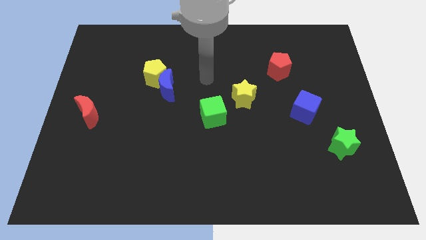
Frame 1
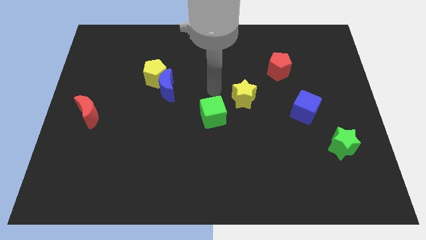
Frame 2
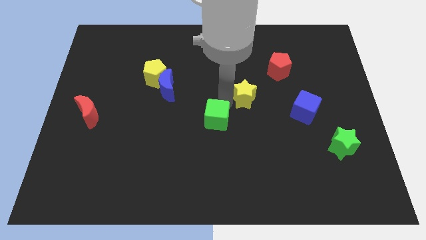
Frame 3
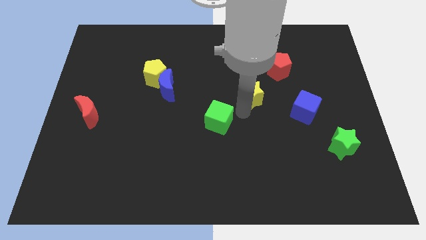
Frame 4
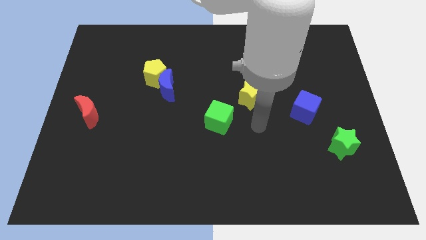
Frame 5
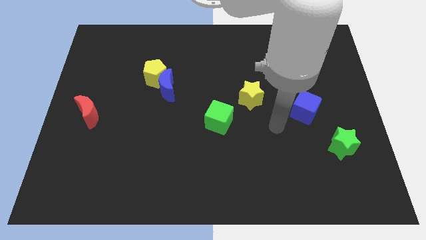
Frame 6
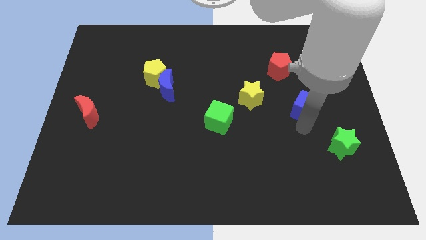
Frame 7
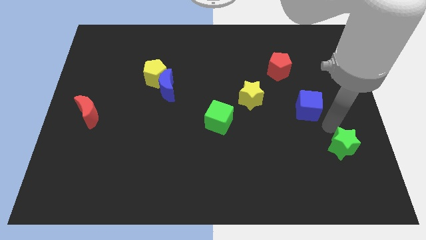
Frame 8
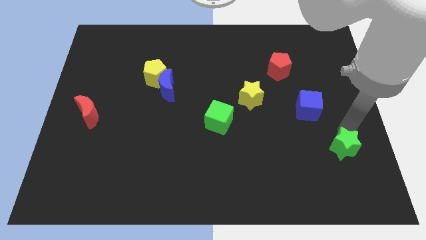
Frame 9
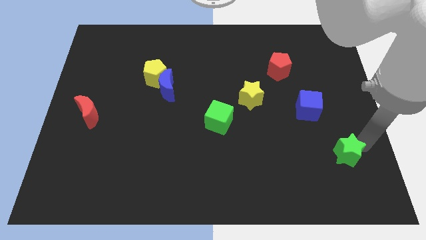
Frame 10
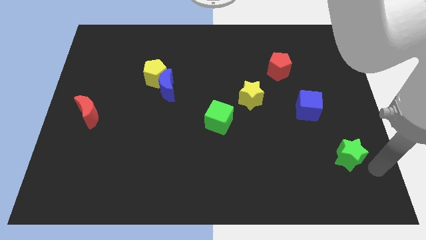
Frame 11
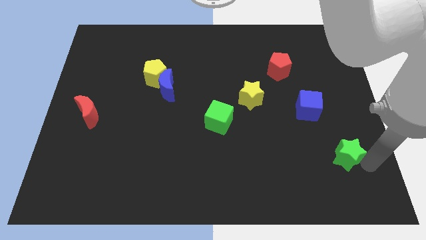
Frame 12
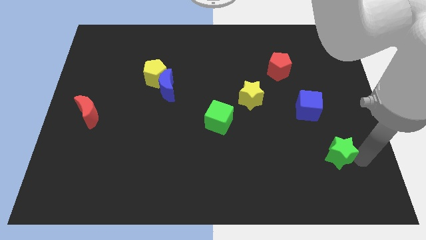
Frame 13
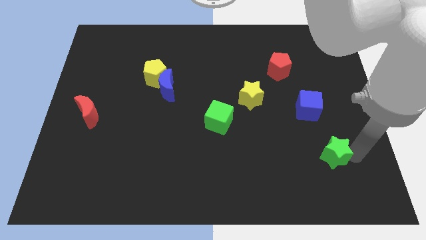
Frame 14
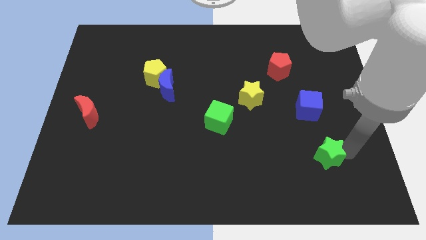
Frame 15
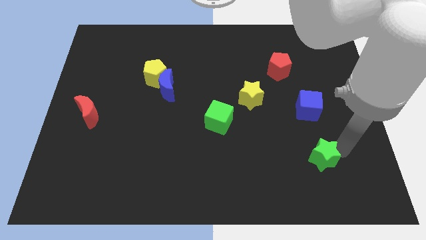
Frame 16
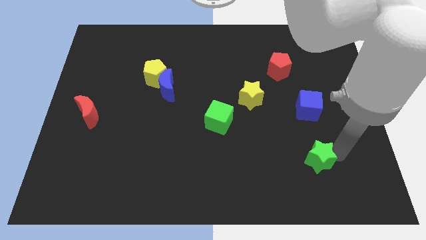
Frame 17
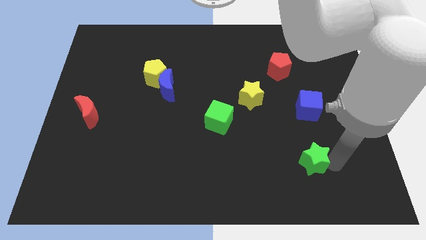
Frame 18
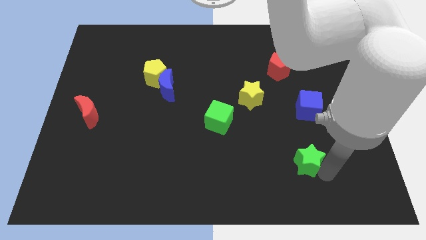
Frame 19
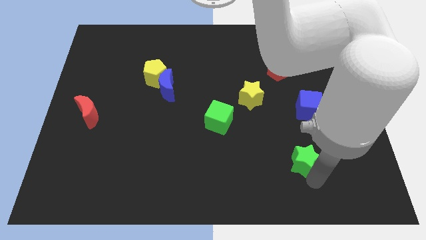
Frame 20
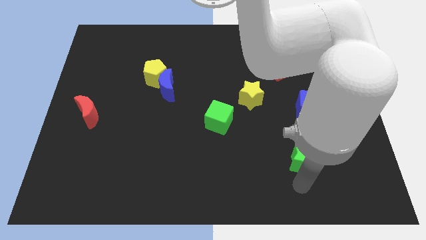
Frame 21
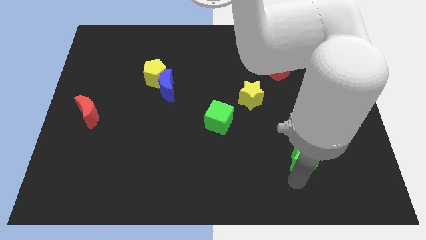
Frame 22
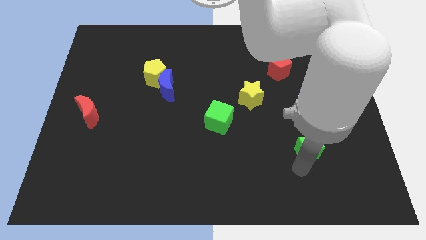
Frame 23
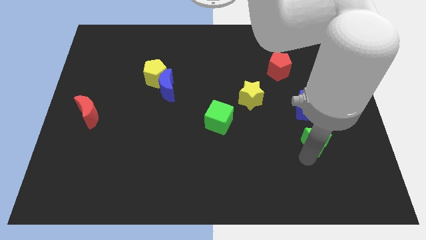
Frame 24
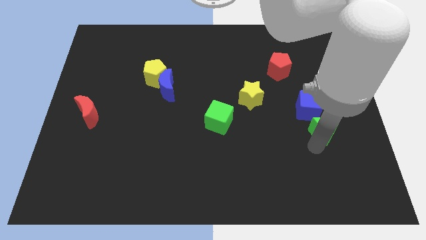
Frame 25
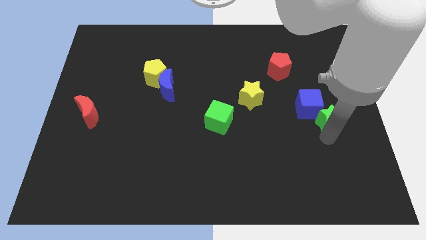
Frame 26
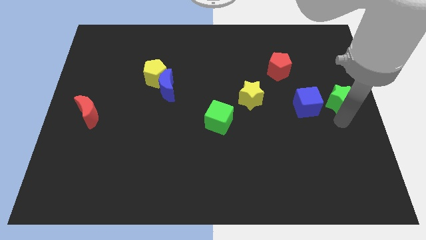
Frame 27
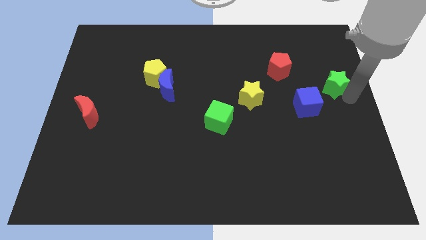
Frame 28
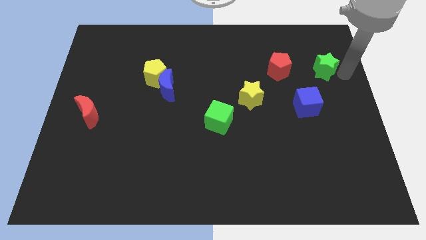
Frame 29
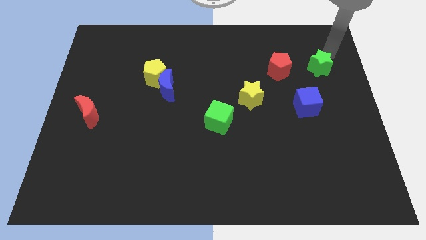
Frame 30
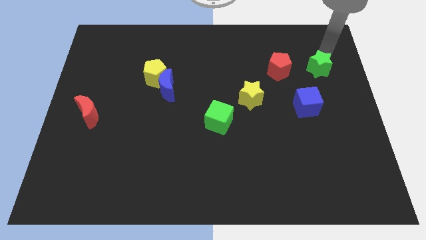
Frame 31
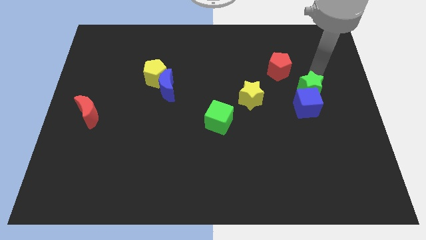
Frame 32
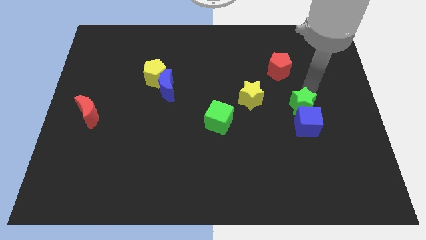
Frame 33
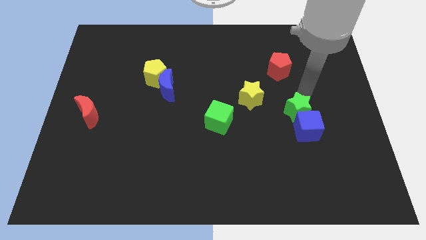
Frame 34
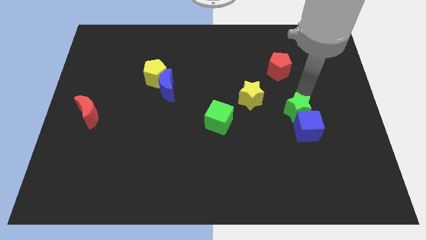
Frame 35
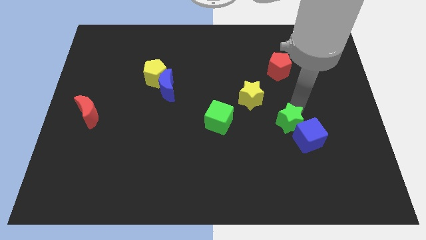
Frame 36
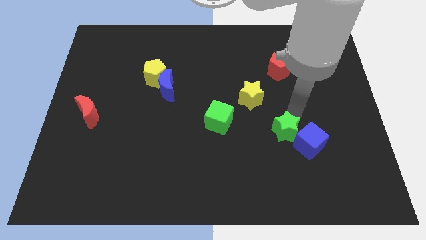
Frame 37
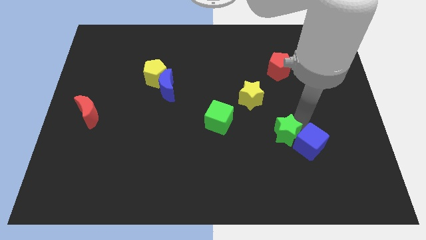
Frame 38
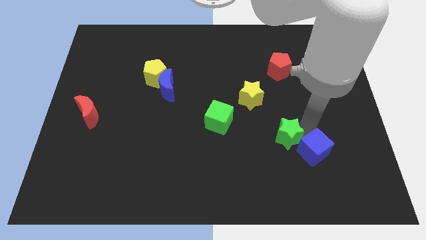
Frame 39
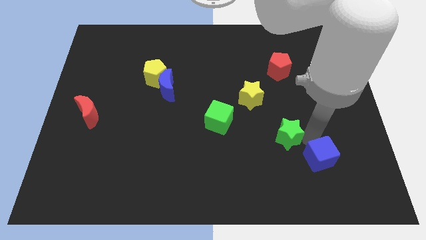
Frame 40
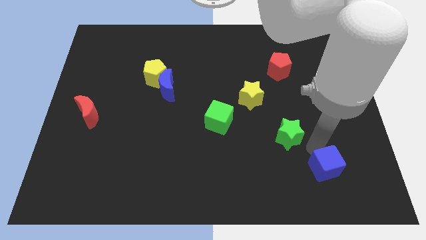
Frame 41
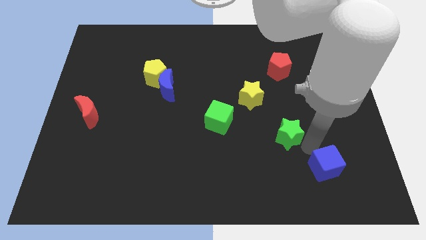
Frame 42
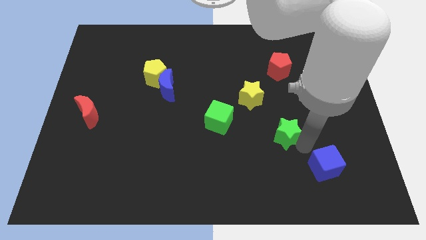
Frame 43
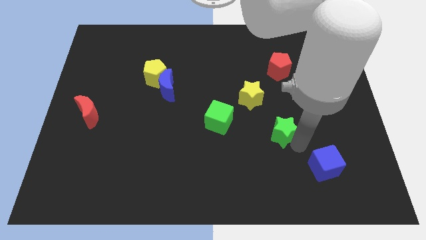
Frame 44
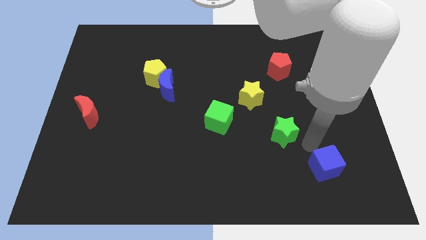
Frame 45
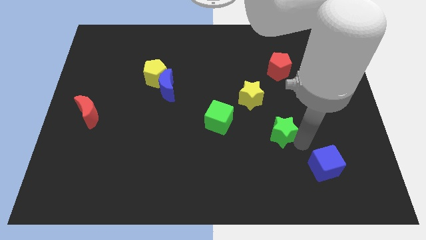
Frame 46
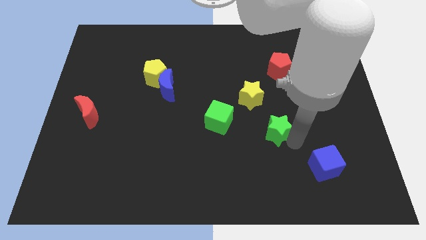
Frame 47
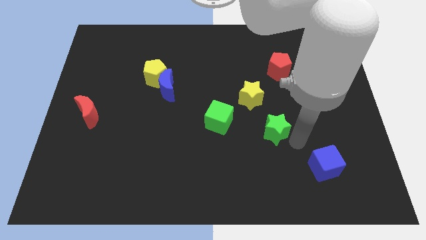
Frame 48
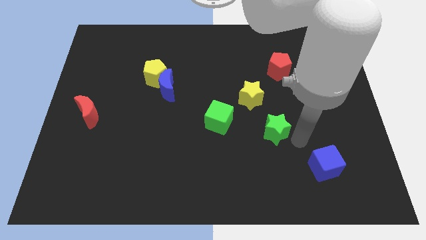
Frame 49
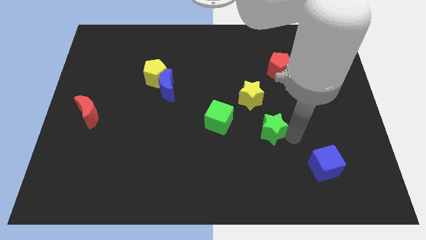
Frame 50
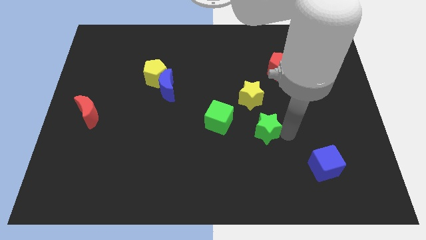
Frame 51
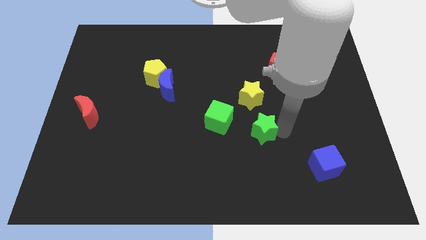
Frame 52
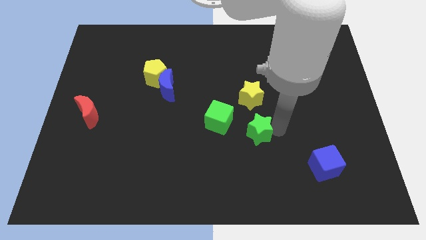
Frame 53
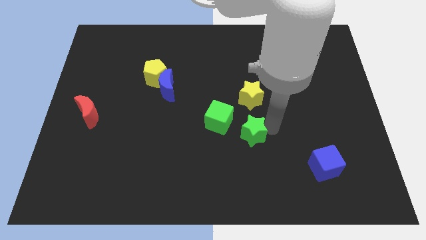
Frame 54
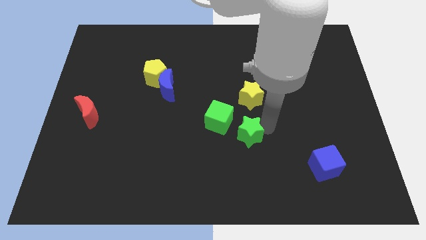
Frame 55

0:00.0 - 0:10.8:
put the green star to the middle of the board

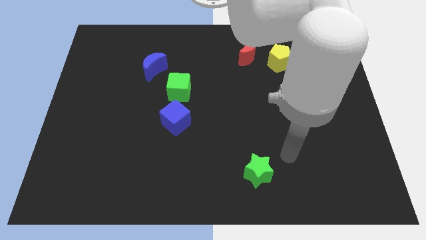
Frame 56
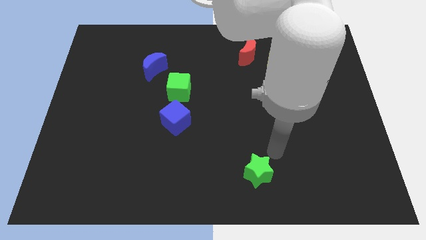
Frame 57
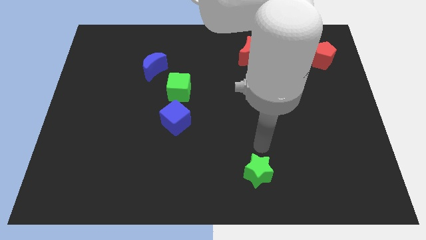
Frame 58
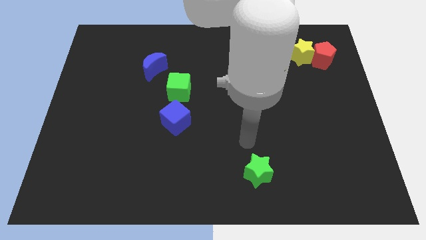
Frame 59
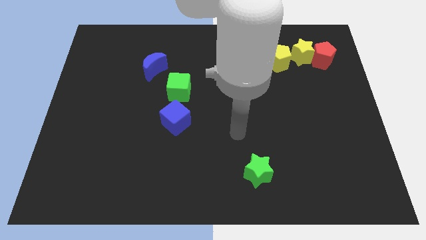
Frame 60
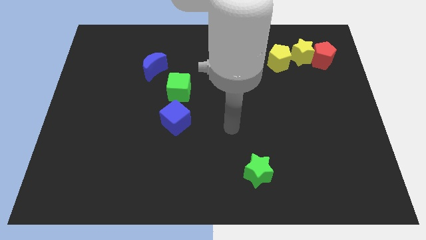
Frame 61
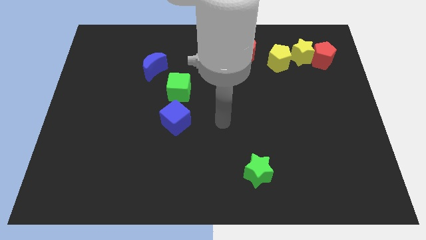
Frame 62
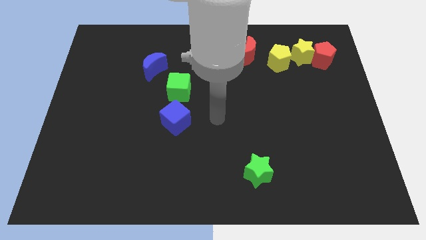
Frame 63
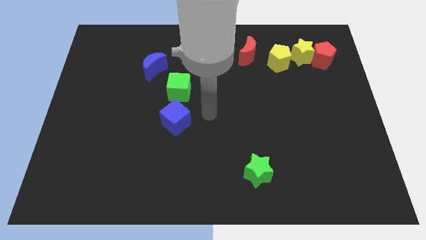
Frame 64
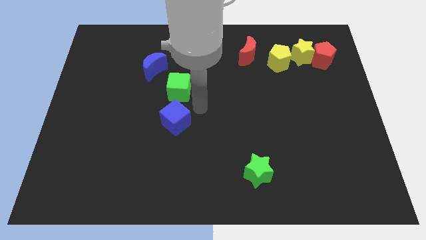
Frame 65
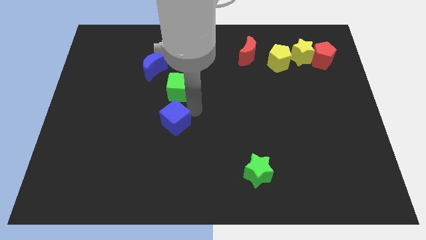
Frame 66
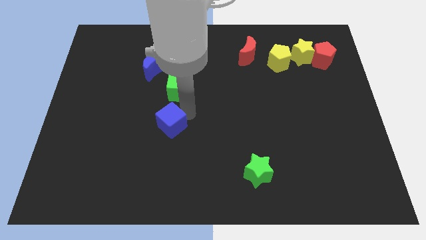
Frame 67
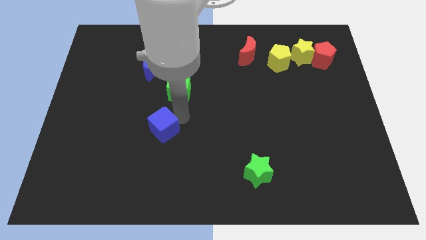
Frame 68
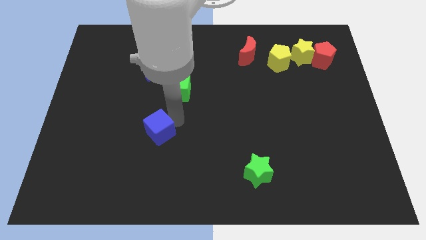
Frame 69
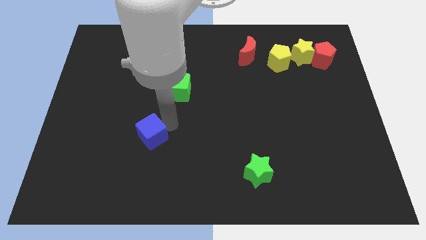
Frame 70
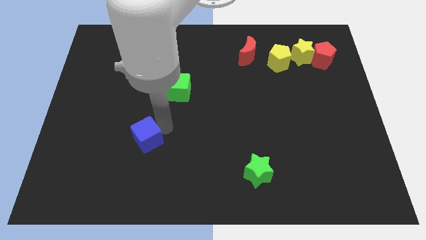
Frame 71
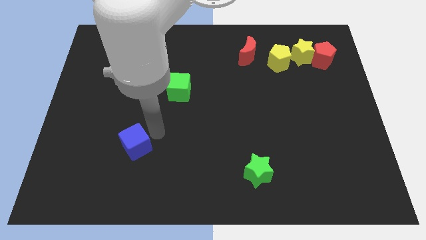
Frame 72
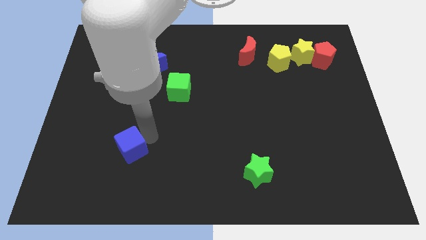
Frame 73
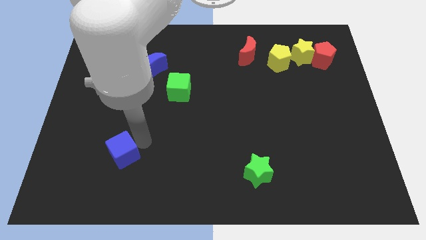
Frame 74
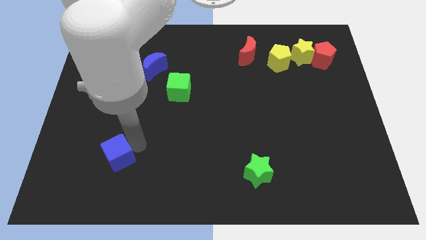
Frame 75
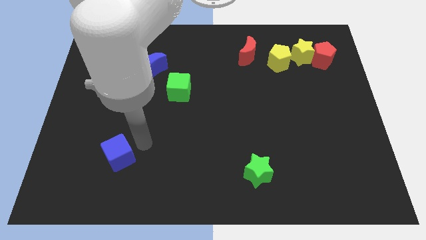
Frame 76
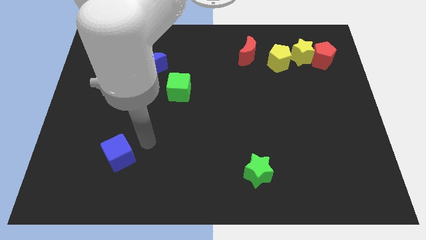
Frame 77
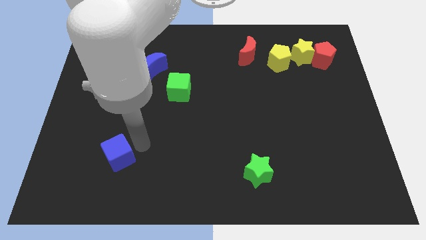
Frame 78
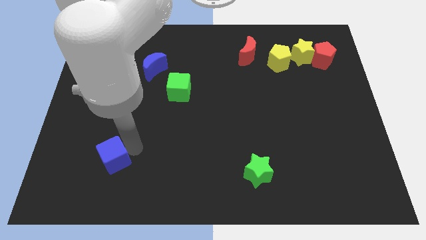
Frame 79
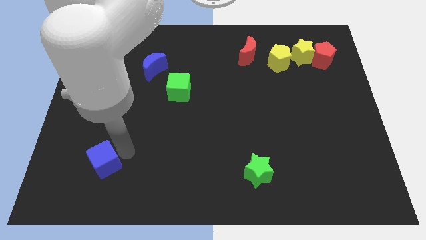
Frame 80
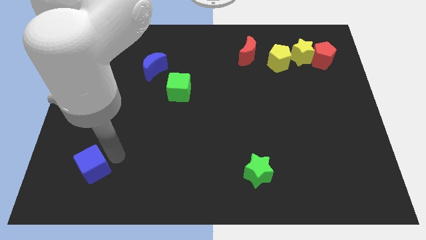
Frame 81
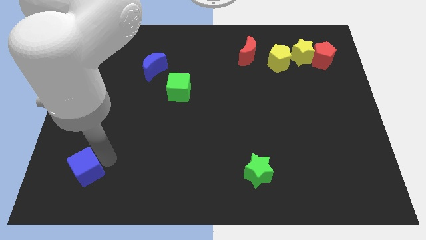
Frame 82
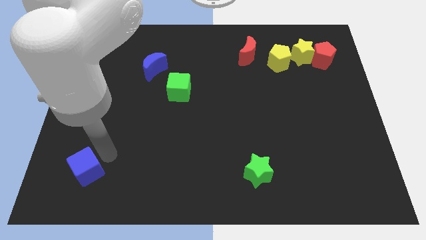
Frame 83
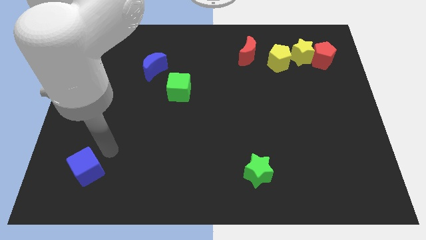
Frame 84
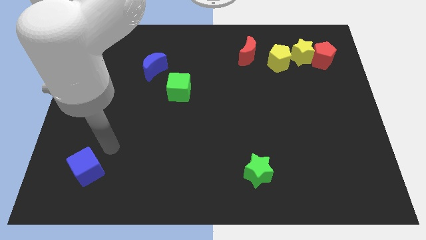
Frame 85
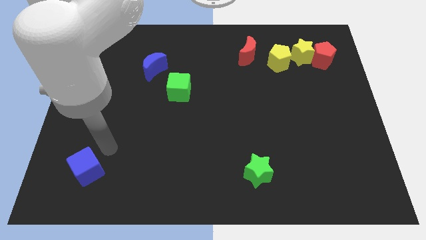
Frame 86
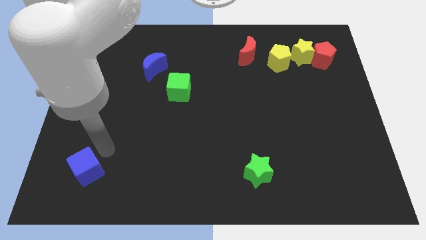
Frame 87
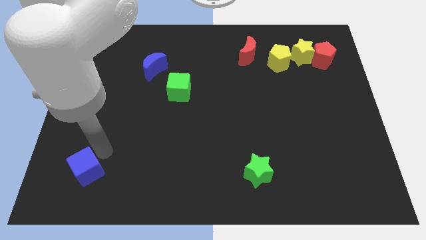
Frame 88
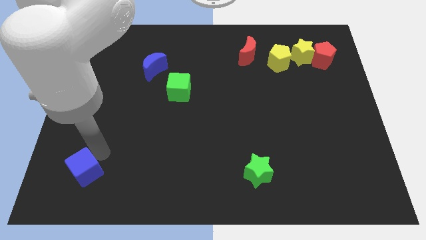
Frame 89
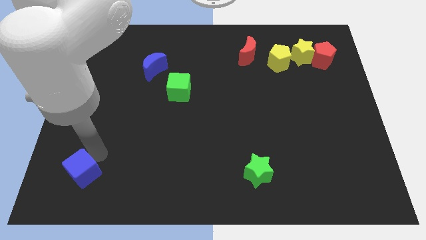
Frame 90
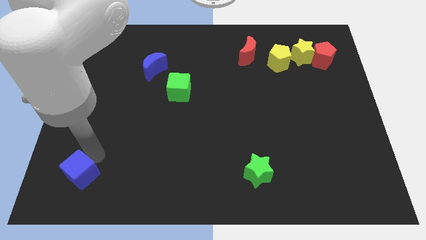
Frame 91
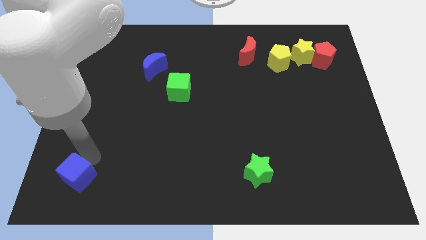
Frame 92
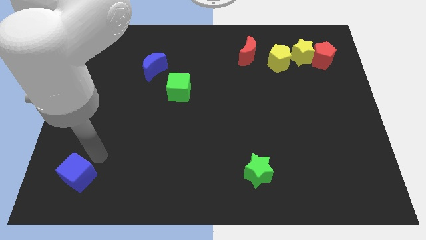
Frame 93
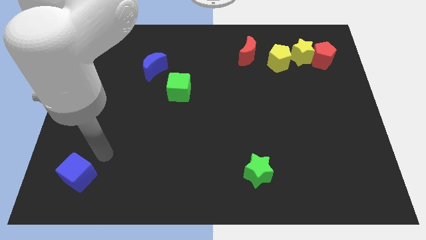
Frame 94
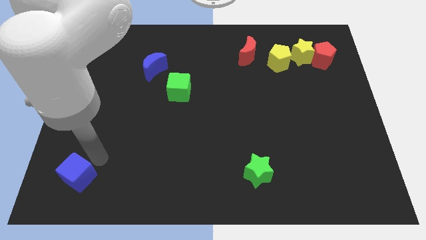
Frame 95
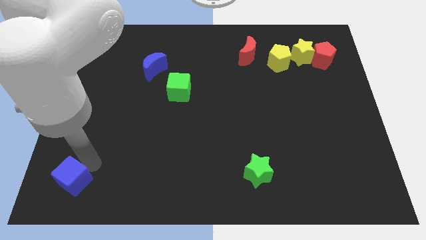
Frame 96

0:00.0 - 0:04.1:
push the blue cube to the bottom left corner
